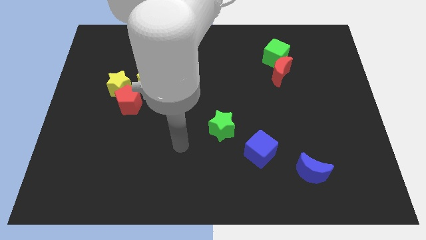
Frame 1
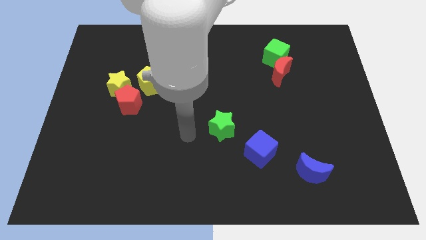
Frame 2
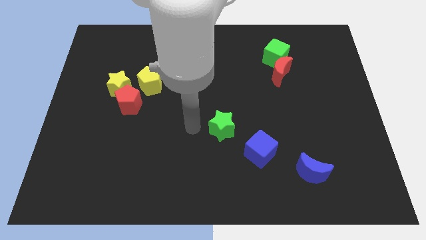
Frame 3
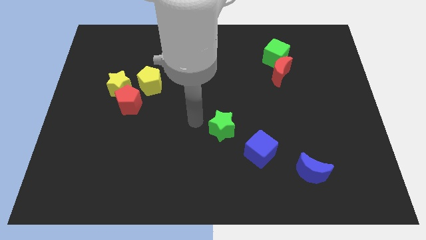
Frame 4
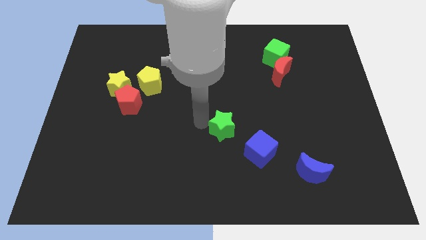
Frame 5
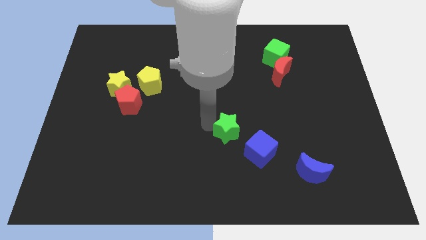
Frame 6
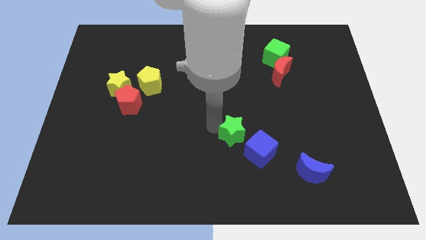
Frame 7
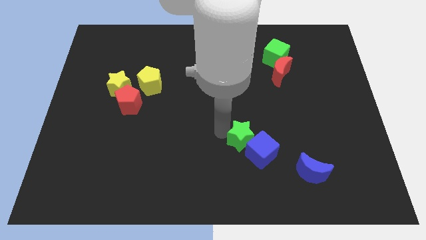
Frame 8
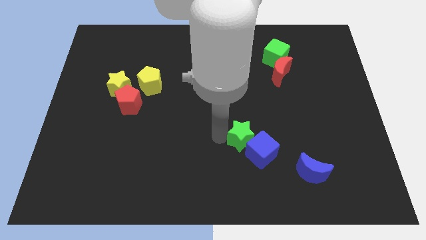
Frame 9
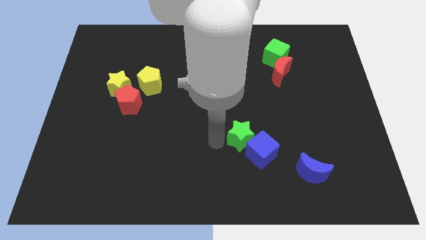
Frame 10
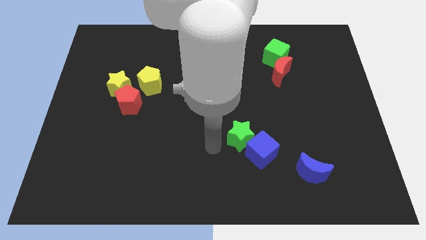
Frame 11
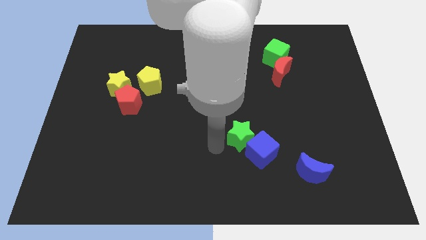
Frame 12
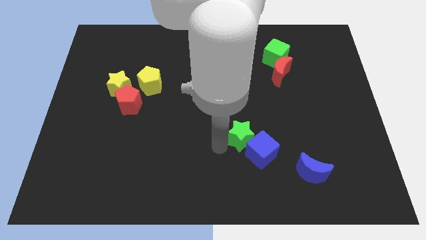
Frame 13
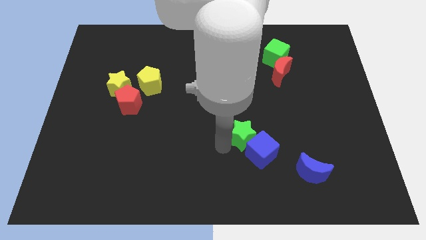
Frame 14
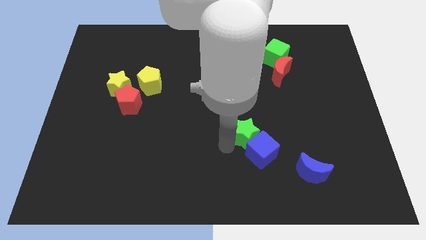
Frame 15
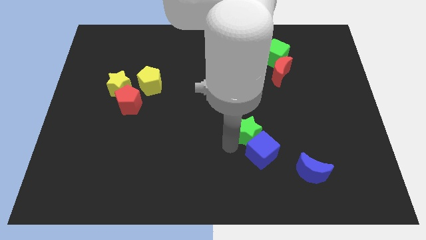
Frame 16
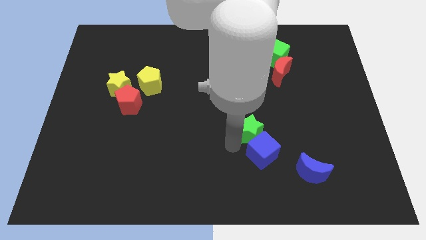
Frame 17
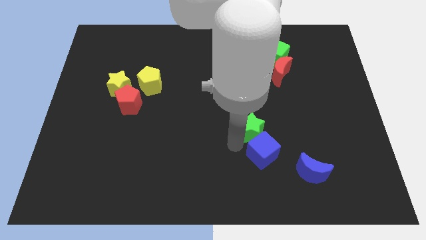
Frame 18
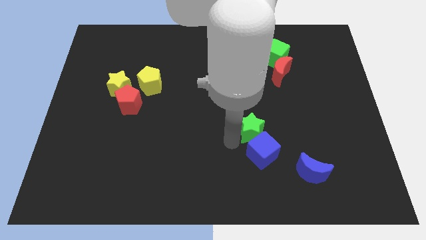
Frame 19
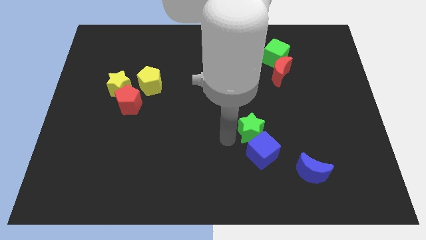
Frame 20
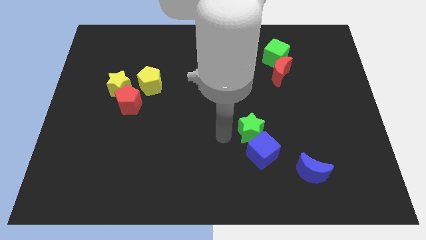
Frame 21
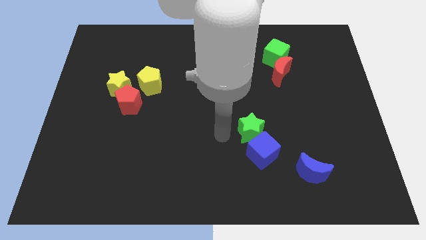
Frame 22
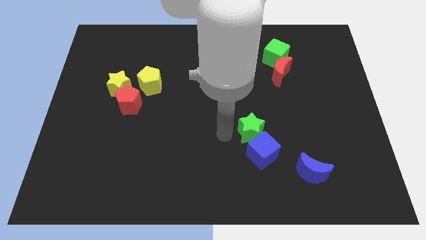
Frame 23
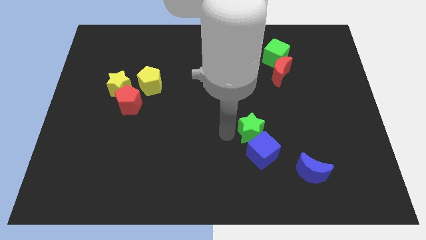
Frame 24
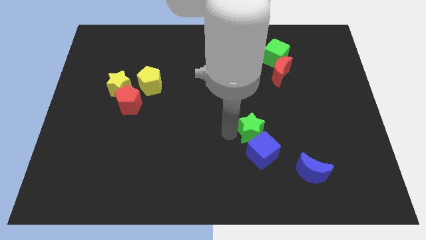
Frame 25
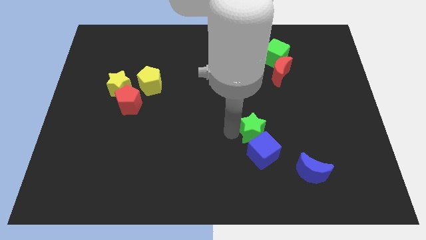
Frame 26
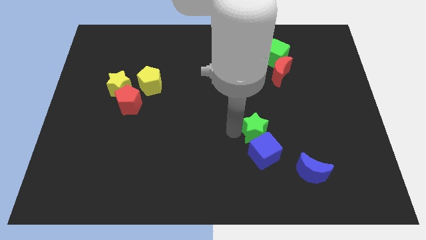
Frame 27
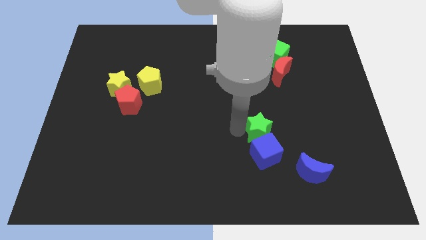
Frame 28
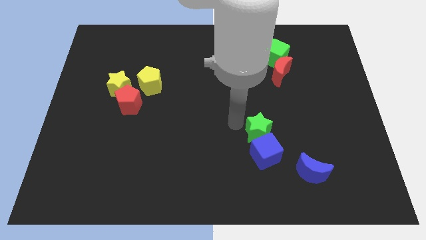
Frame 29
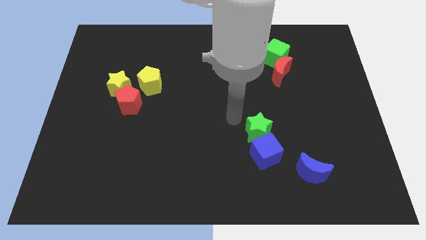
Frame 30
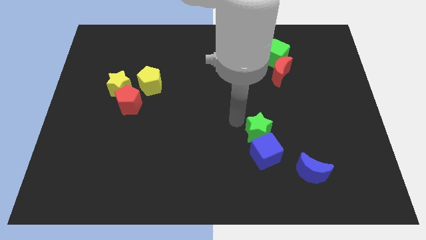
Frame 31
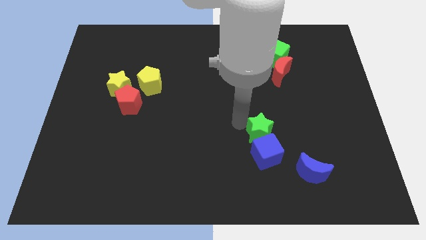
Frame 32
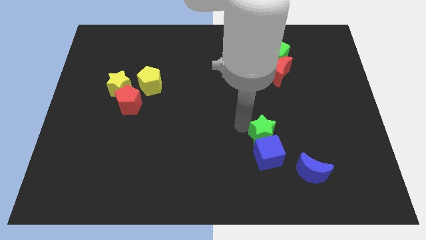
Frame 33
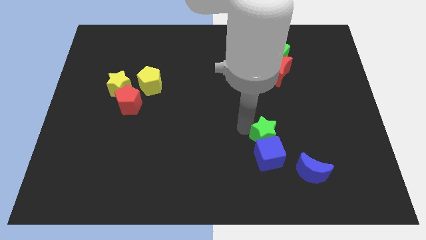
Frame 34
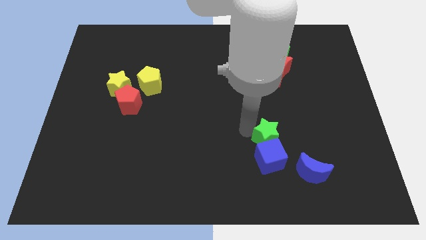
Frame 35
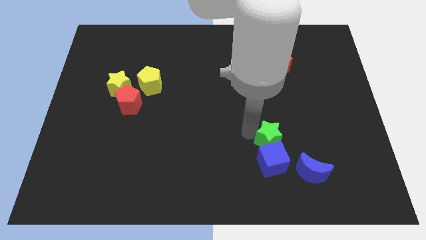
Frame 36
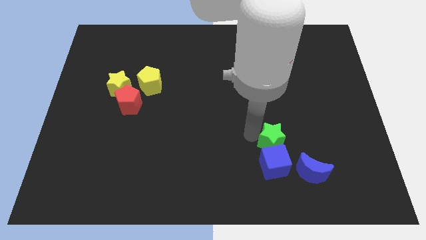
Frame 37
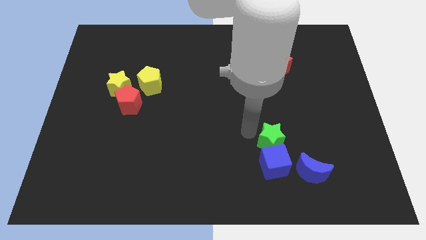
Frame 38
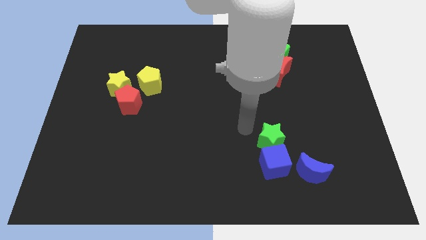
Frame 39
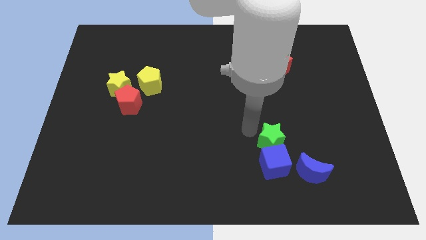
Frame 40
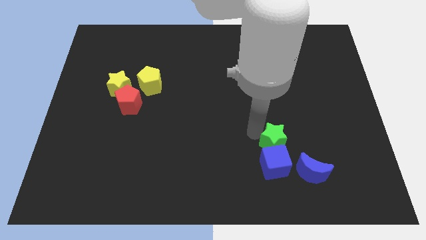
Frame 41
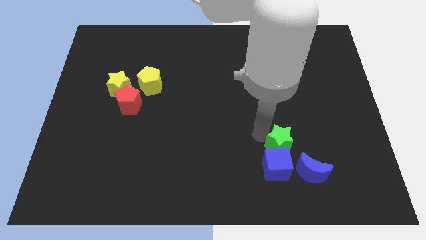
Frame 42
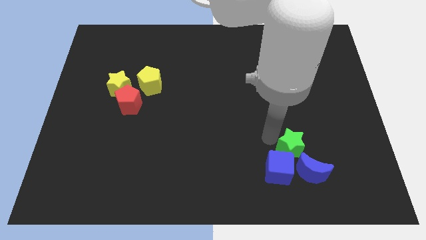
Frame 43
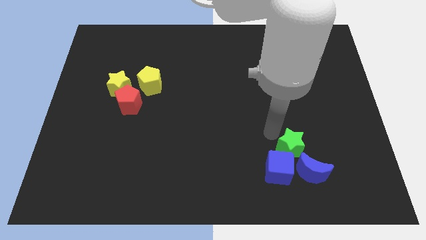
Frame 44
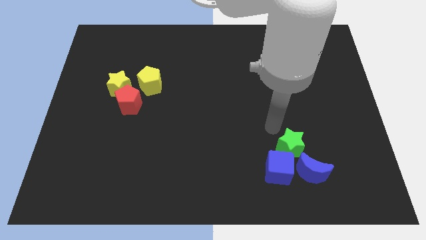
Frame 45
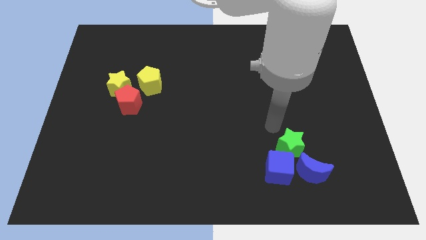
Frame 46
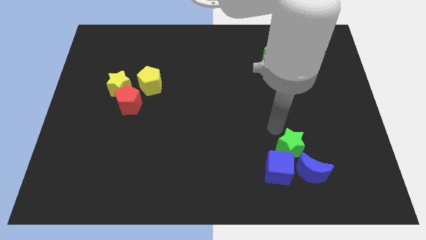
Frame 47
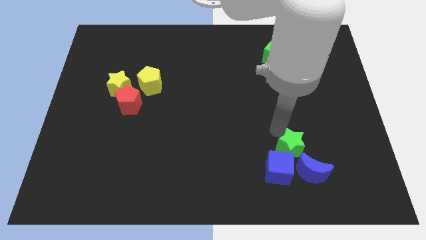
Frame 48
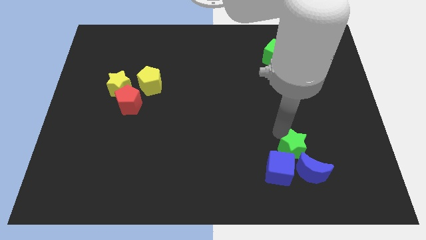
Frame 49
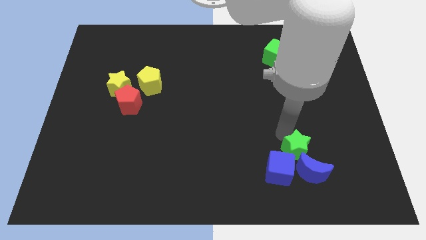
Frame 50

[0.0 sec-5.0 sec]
put the green star close to the blue moon

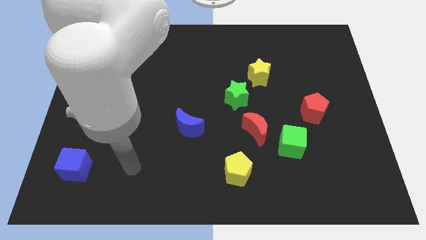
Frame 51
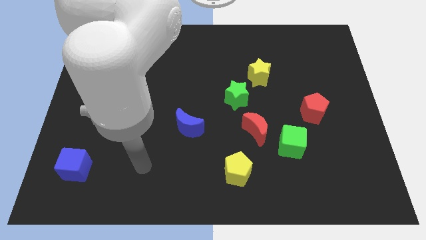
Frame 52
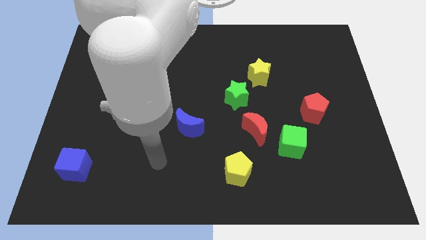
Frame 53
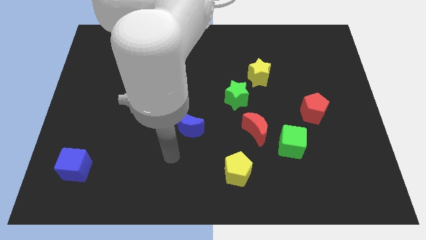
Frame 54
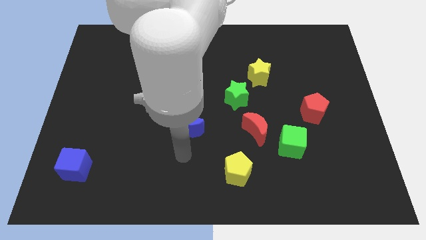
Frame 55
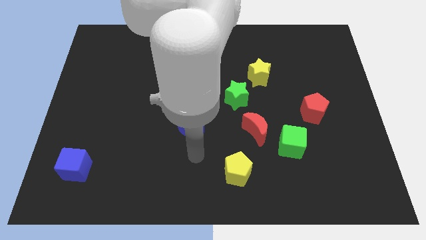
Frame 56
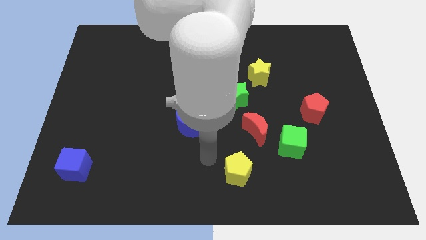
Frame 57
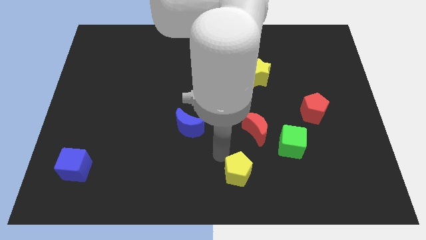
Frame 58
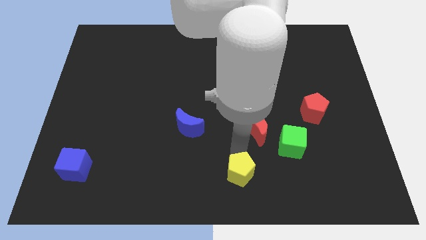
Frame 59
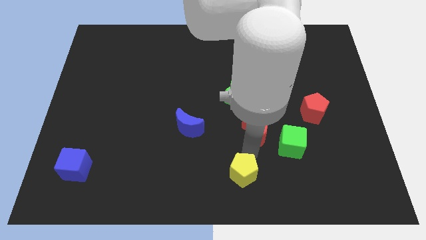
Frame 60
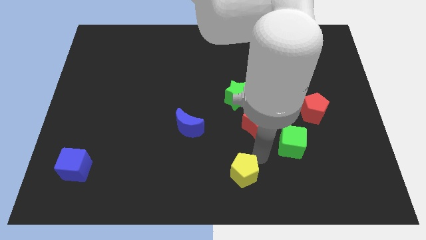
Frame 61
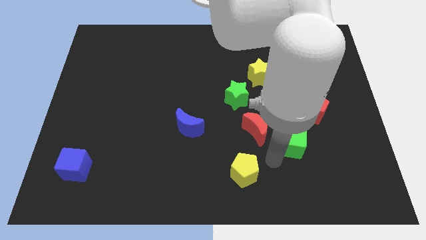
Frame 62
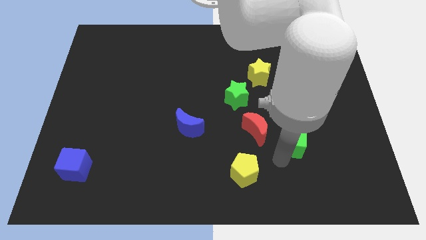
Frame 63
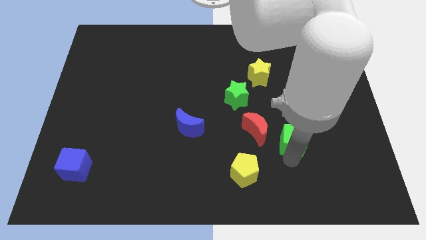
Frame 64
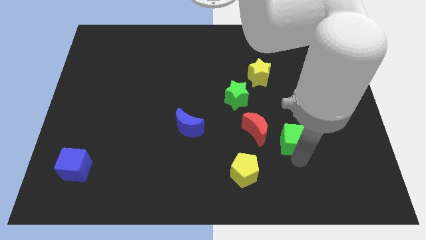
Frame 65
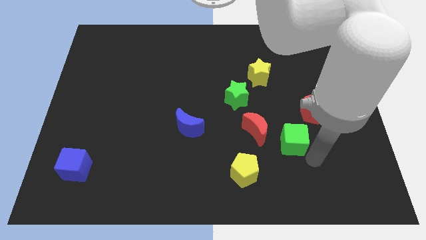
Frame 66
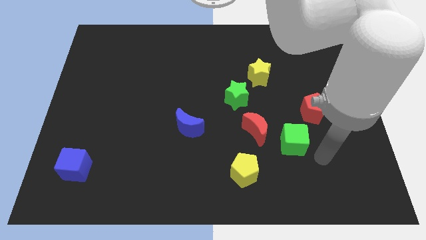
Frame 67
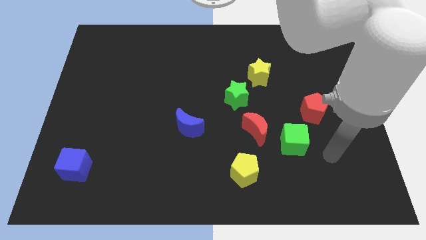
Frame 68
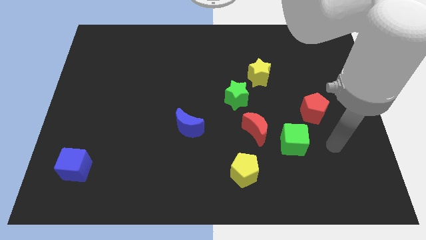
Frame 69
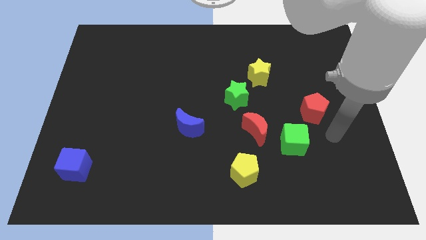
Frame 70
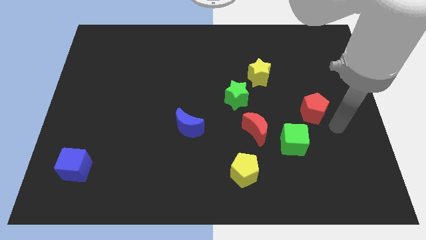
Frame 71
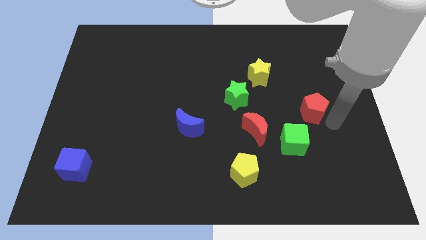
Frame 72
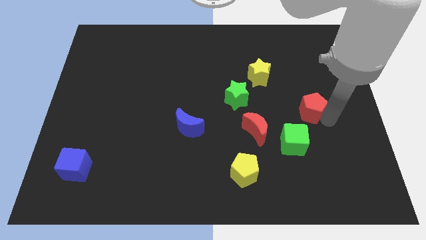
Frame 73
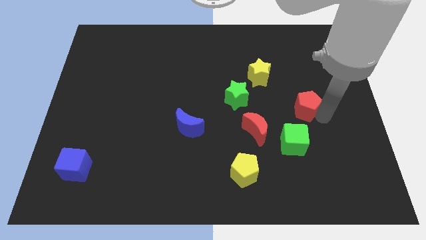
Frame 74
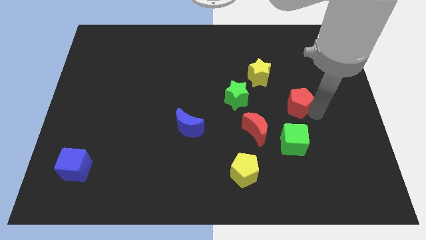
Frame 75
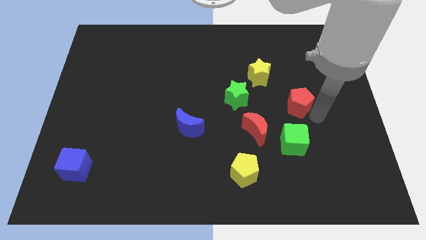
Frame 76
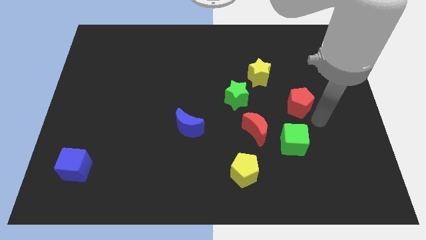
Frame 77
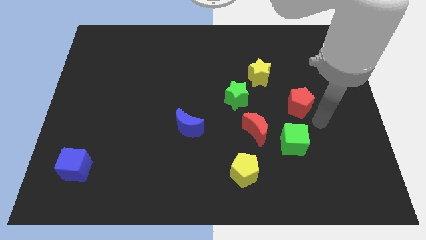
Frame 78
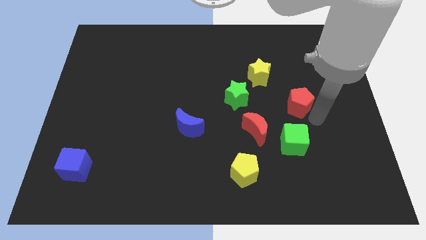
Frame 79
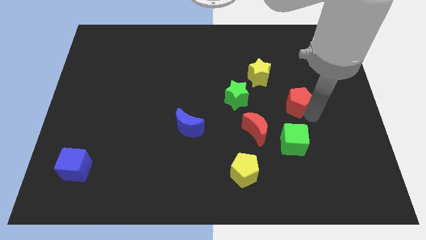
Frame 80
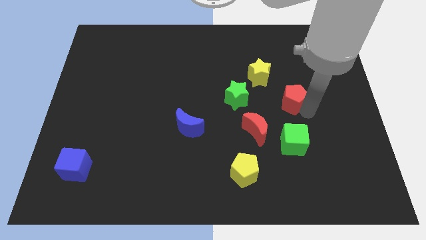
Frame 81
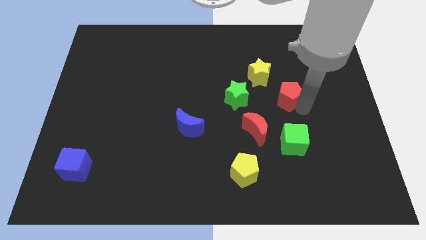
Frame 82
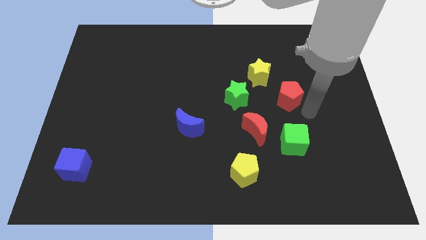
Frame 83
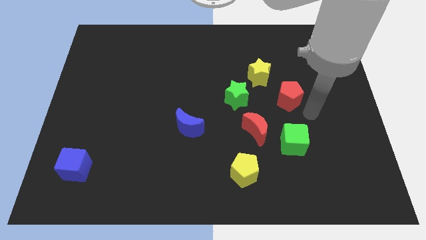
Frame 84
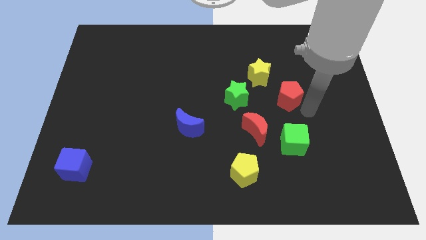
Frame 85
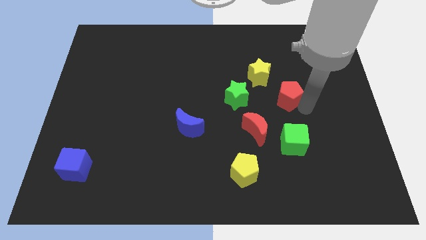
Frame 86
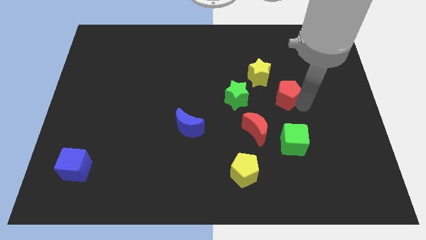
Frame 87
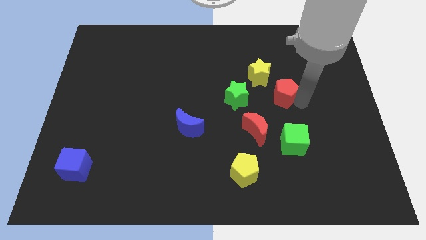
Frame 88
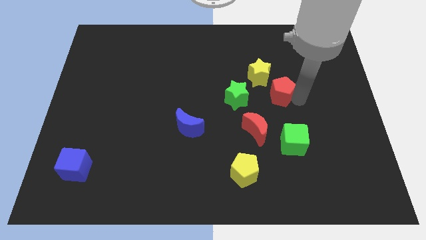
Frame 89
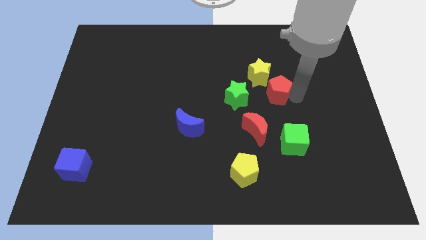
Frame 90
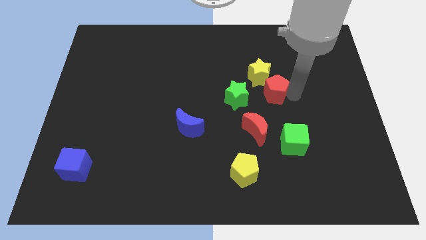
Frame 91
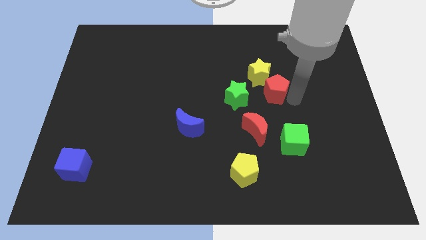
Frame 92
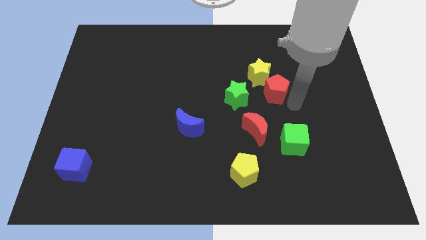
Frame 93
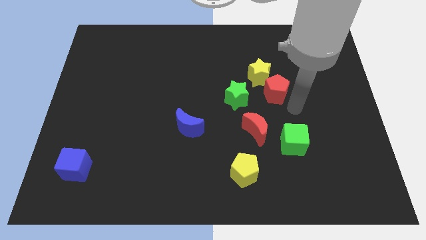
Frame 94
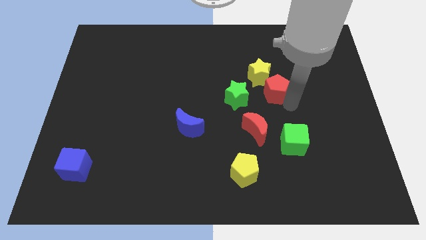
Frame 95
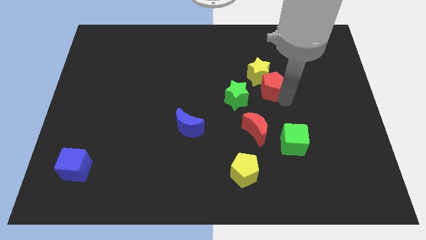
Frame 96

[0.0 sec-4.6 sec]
move the red pentagon towards the yellow star
